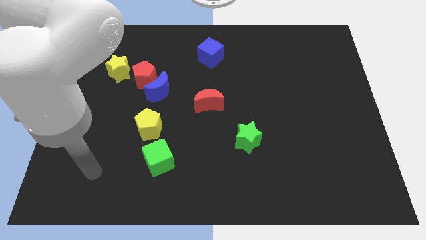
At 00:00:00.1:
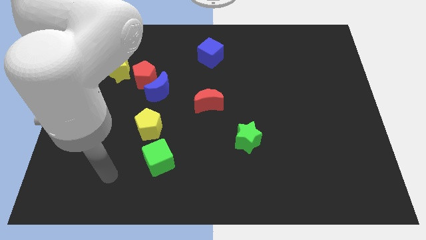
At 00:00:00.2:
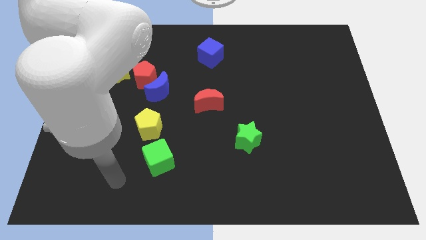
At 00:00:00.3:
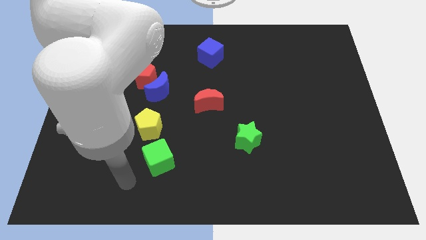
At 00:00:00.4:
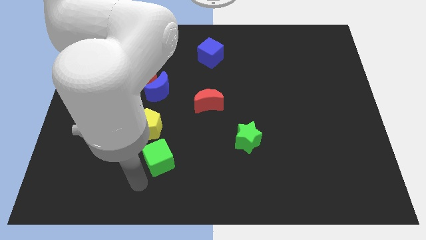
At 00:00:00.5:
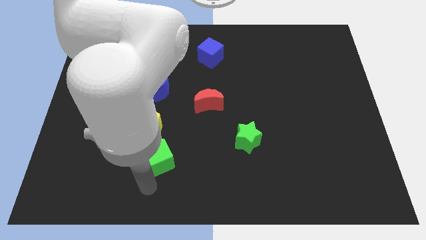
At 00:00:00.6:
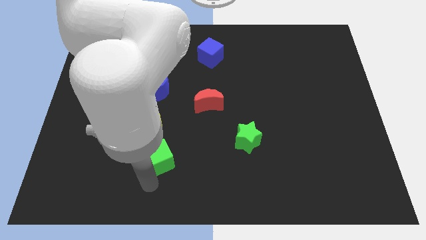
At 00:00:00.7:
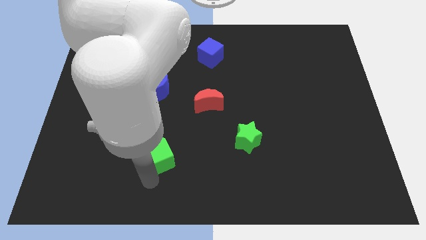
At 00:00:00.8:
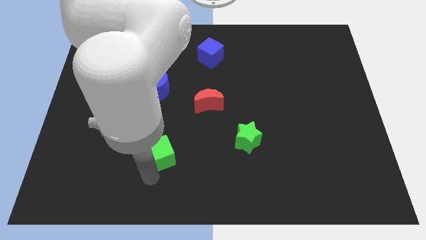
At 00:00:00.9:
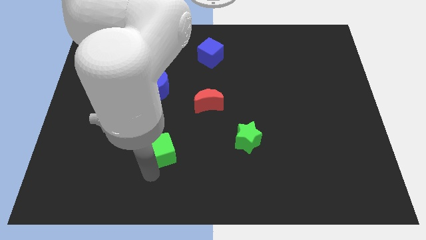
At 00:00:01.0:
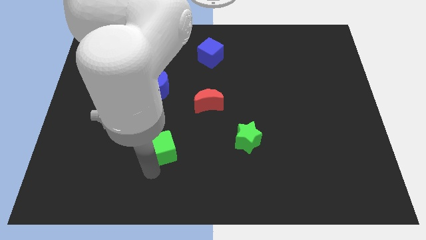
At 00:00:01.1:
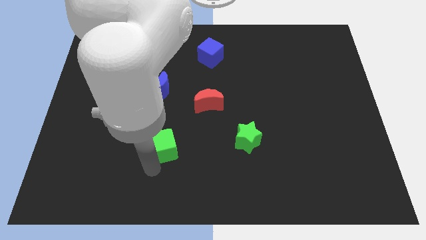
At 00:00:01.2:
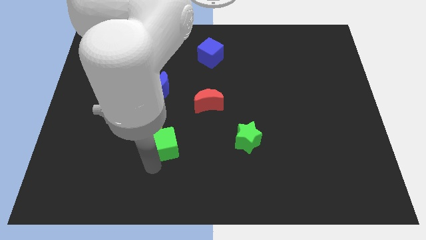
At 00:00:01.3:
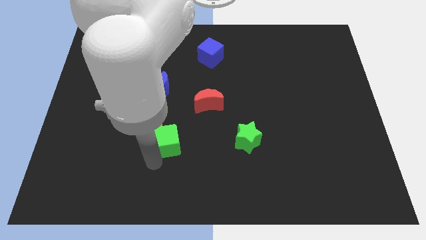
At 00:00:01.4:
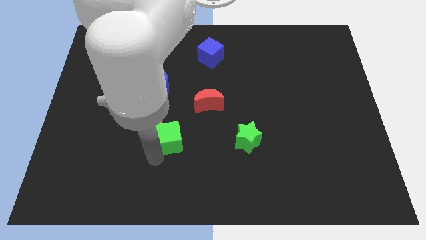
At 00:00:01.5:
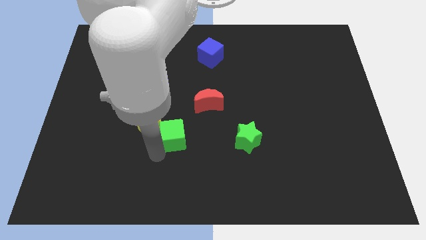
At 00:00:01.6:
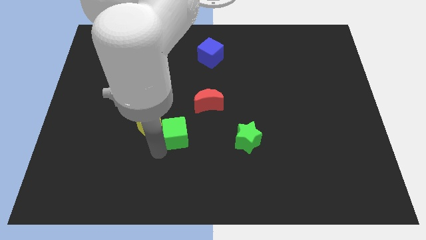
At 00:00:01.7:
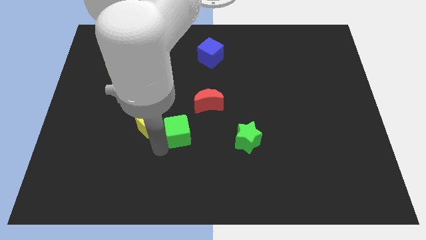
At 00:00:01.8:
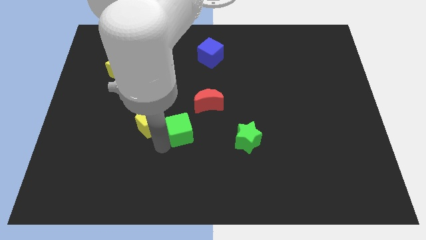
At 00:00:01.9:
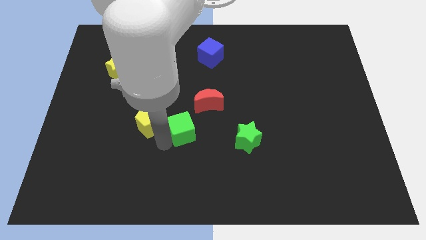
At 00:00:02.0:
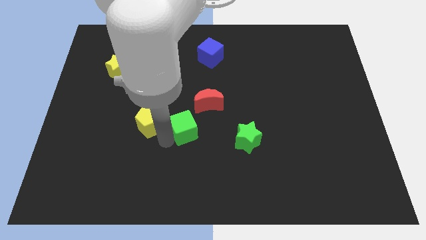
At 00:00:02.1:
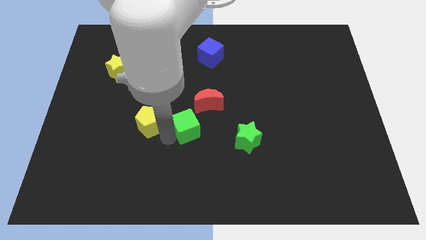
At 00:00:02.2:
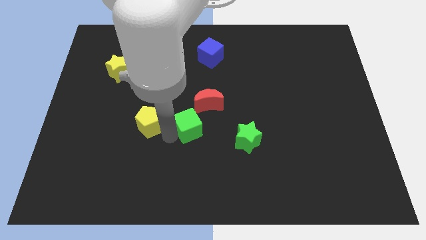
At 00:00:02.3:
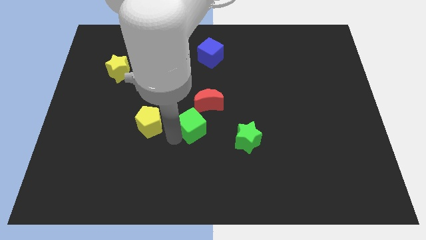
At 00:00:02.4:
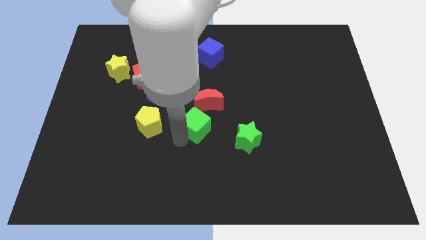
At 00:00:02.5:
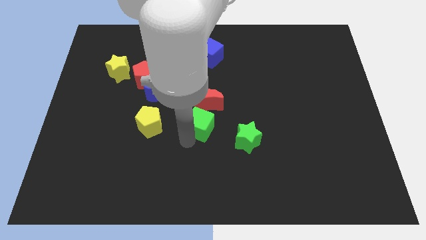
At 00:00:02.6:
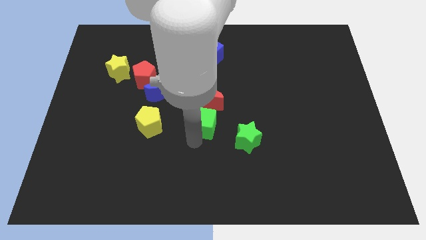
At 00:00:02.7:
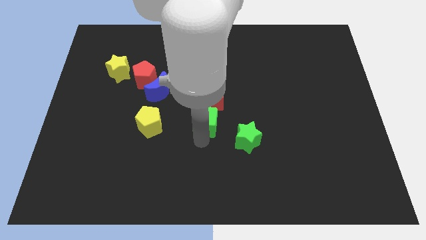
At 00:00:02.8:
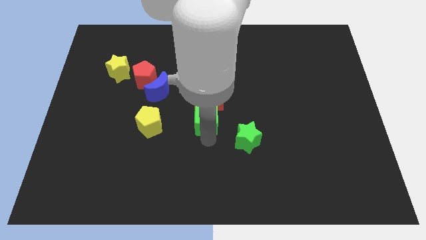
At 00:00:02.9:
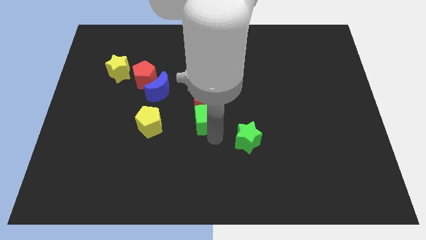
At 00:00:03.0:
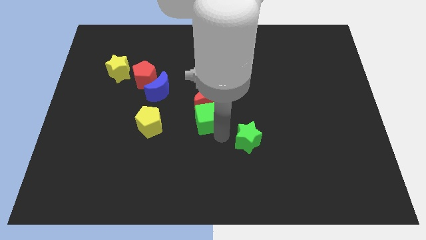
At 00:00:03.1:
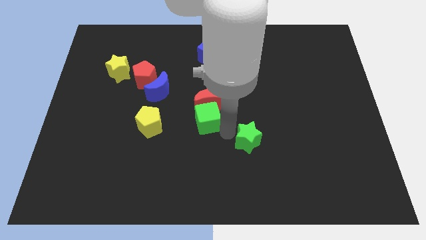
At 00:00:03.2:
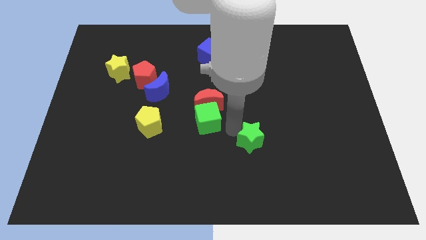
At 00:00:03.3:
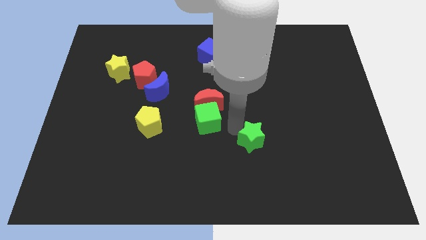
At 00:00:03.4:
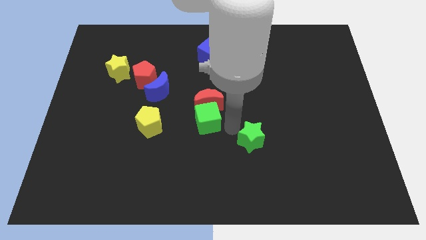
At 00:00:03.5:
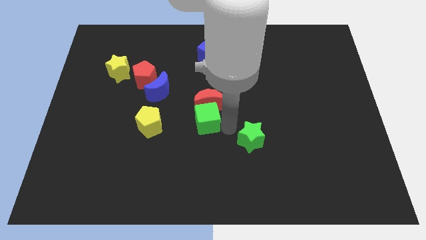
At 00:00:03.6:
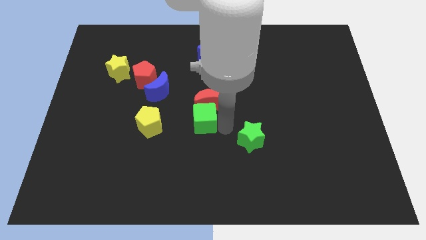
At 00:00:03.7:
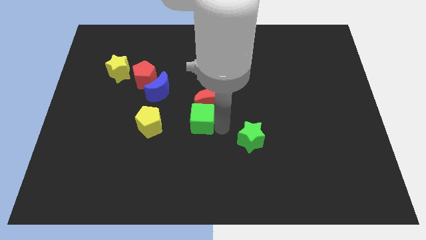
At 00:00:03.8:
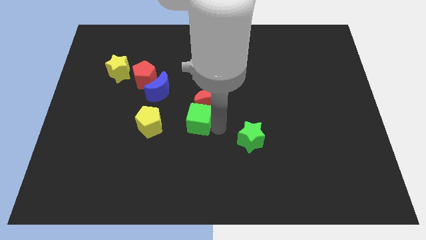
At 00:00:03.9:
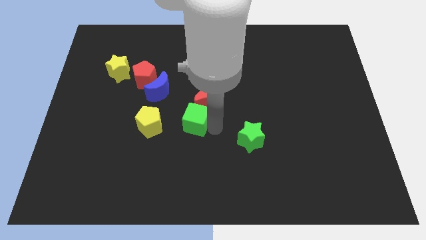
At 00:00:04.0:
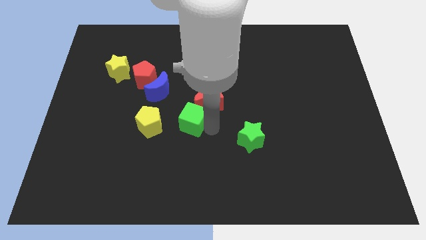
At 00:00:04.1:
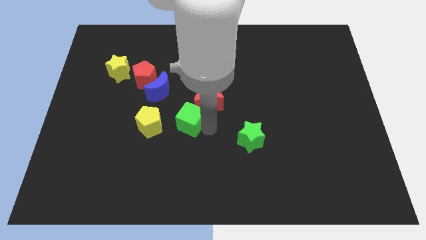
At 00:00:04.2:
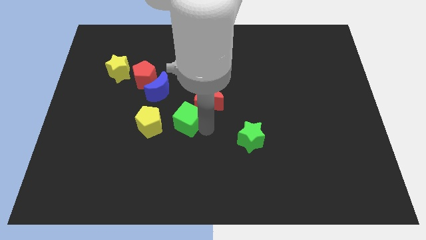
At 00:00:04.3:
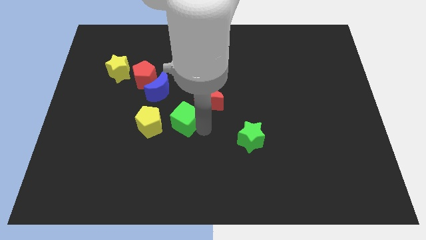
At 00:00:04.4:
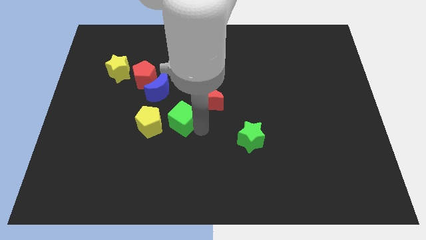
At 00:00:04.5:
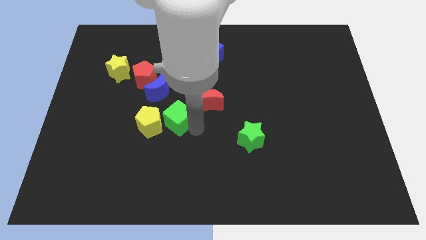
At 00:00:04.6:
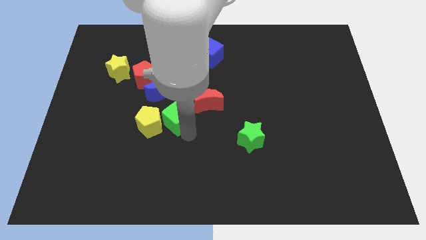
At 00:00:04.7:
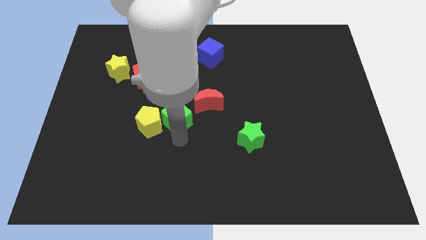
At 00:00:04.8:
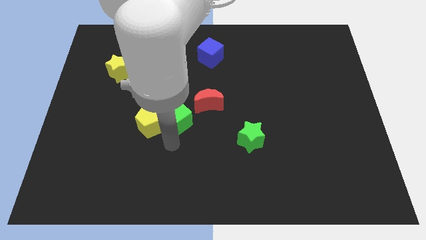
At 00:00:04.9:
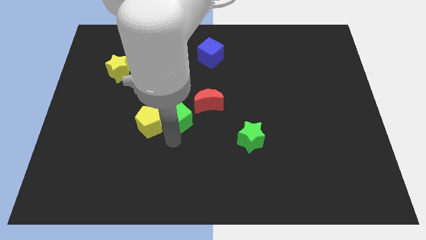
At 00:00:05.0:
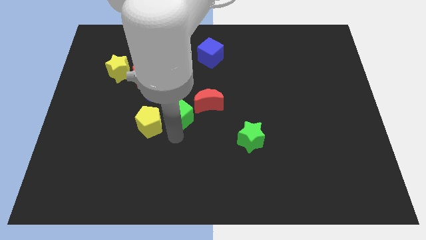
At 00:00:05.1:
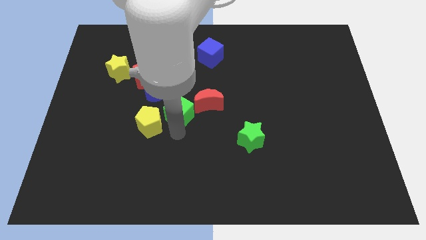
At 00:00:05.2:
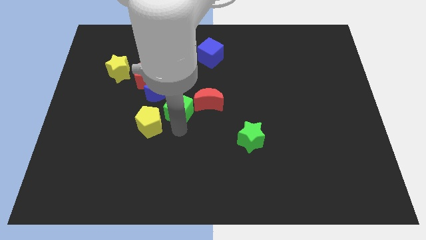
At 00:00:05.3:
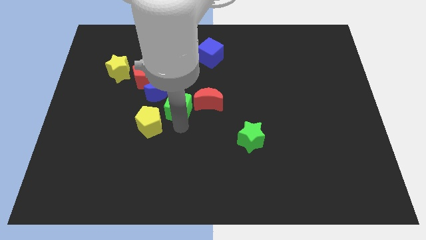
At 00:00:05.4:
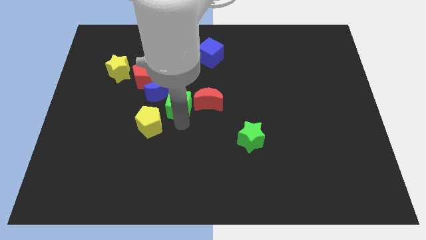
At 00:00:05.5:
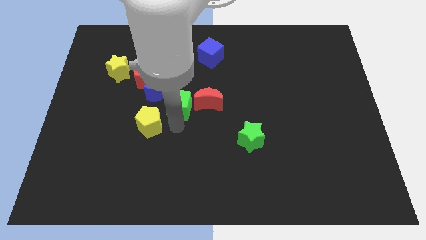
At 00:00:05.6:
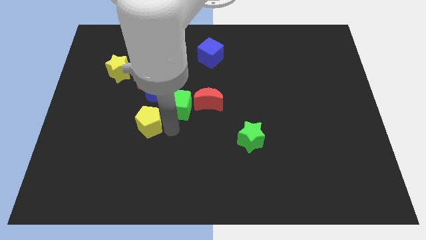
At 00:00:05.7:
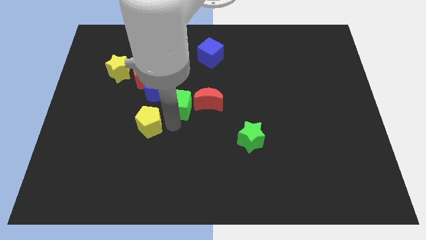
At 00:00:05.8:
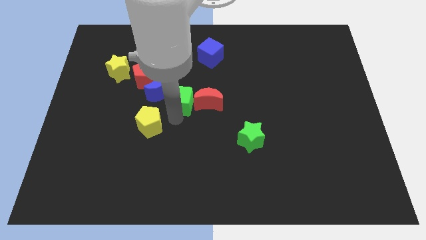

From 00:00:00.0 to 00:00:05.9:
slide the green cube to the top left side of the red moon

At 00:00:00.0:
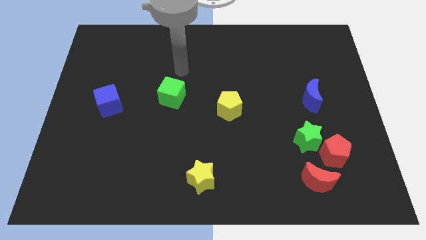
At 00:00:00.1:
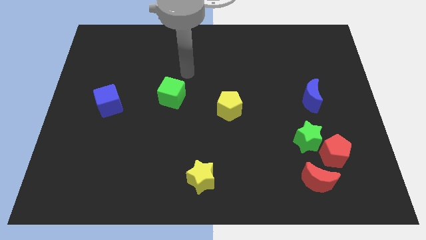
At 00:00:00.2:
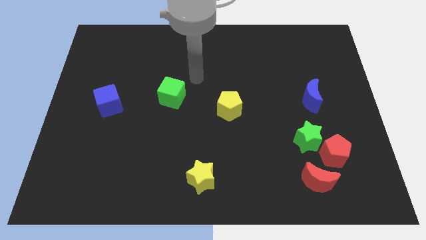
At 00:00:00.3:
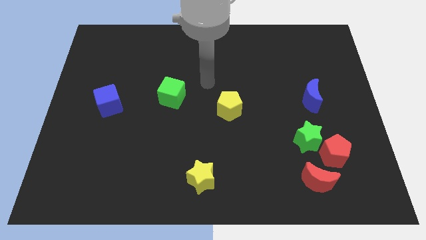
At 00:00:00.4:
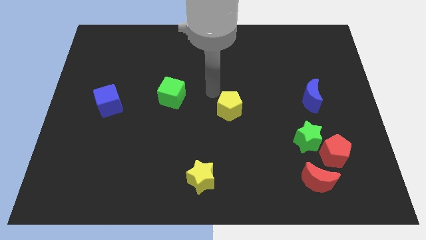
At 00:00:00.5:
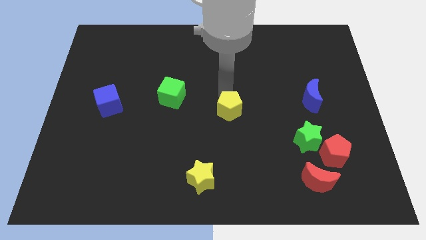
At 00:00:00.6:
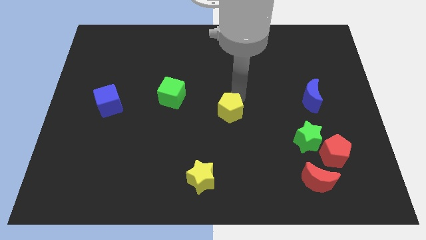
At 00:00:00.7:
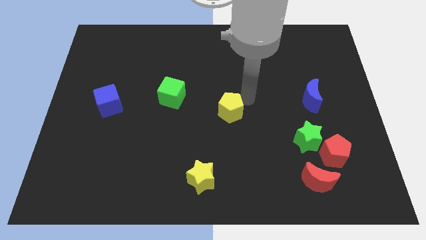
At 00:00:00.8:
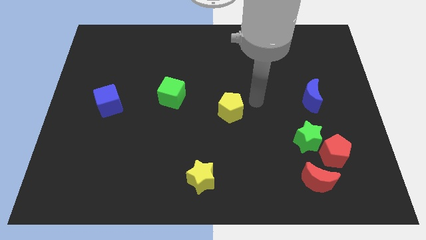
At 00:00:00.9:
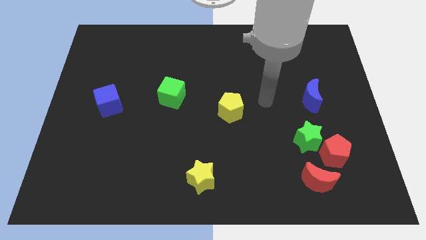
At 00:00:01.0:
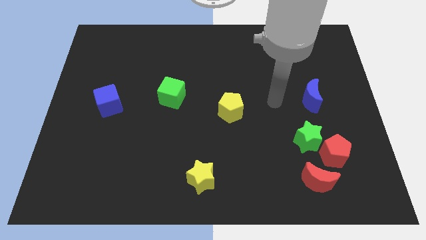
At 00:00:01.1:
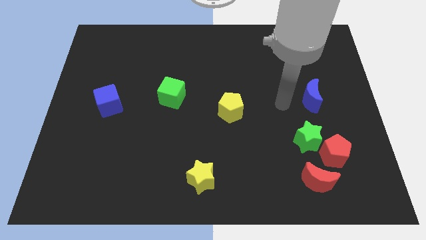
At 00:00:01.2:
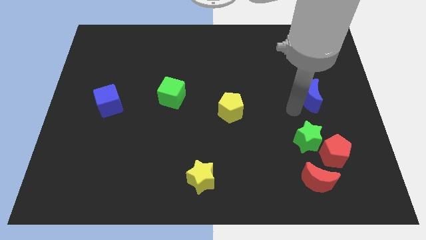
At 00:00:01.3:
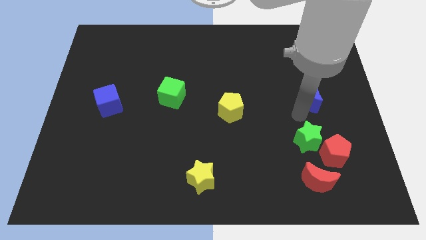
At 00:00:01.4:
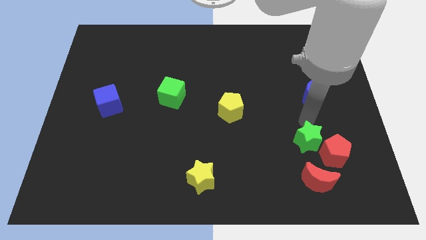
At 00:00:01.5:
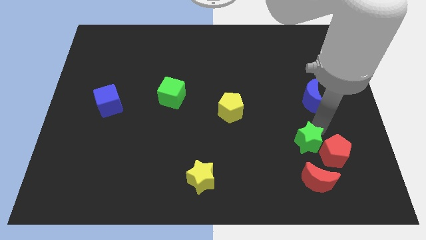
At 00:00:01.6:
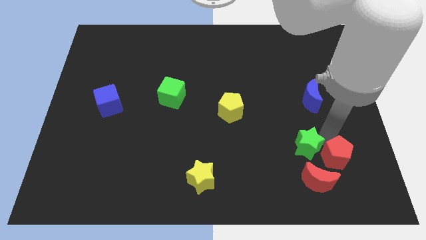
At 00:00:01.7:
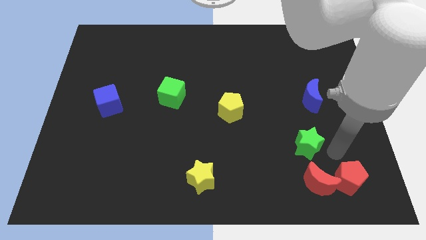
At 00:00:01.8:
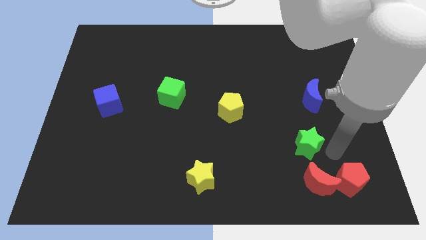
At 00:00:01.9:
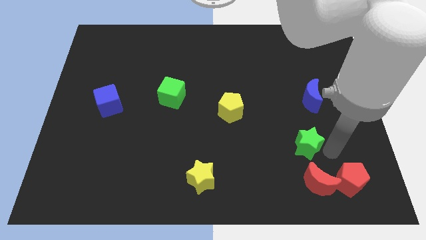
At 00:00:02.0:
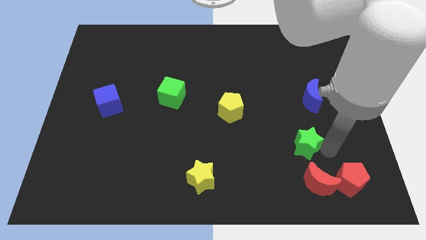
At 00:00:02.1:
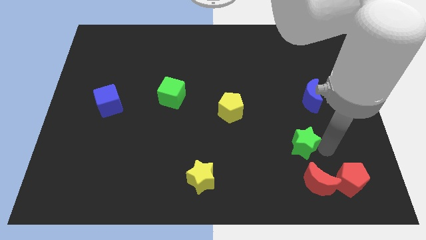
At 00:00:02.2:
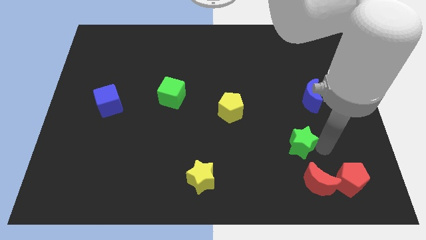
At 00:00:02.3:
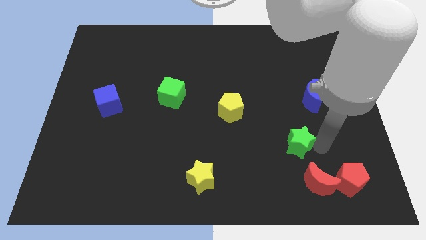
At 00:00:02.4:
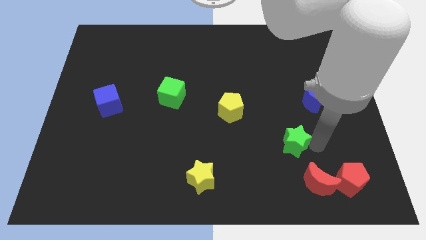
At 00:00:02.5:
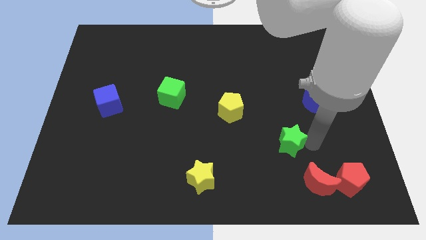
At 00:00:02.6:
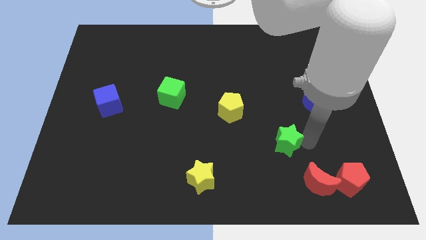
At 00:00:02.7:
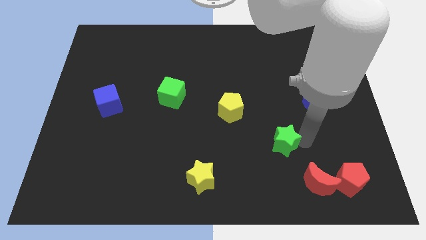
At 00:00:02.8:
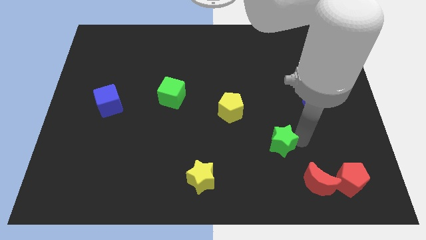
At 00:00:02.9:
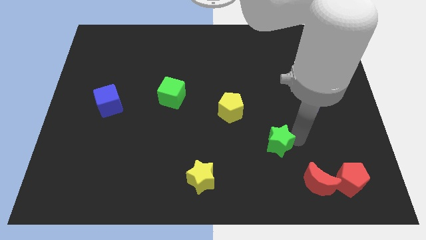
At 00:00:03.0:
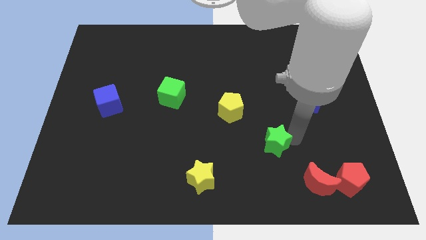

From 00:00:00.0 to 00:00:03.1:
put the green star to the bottom right side of the yellow pentagon
